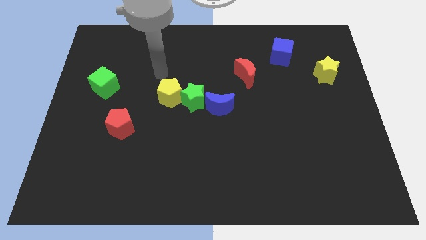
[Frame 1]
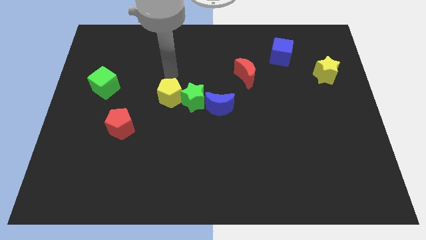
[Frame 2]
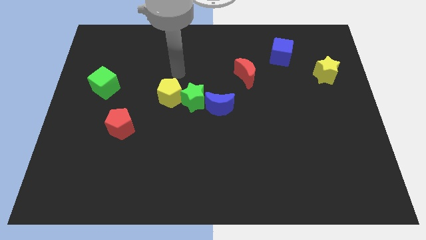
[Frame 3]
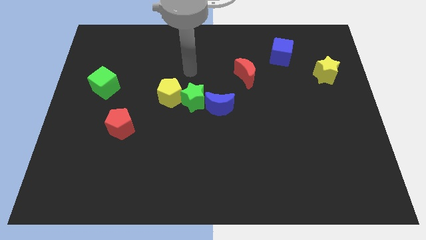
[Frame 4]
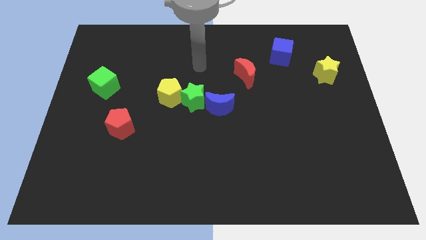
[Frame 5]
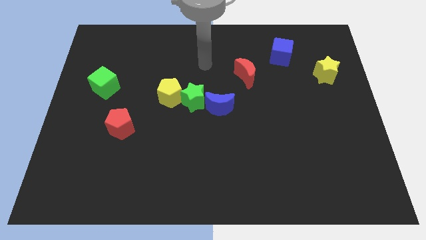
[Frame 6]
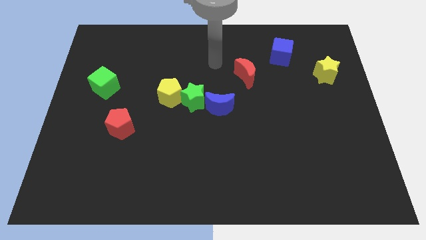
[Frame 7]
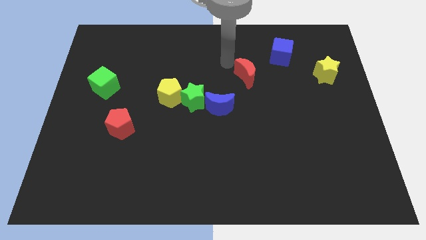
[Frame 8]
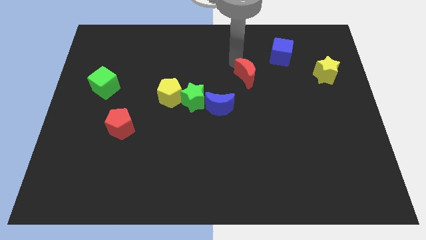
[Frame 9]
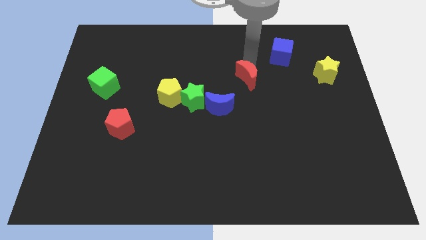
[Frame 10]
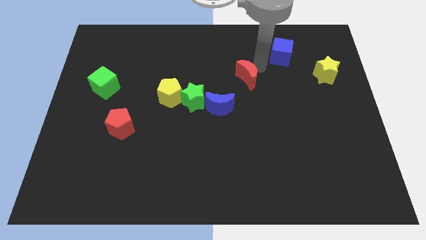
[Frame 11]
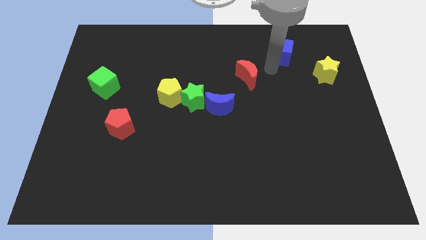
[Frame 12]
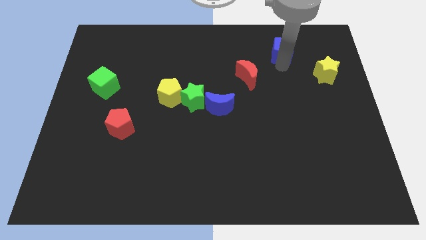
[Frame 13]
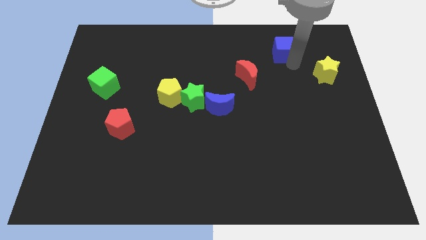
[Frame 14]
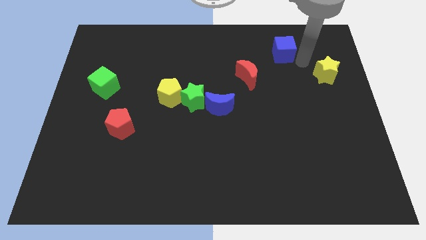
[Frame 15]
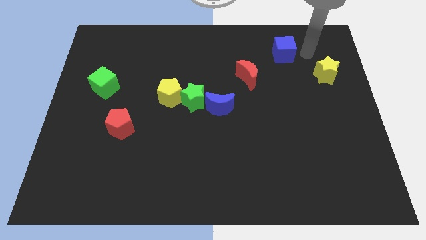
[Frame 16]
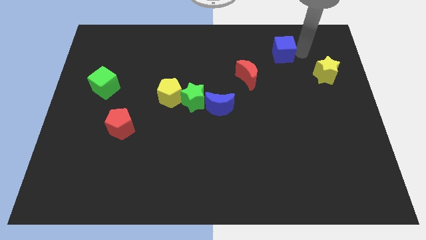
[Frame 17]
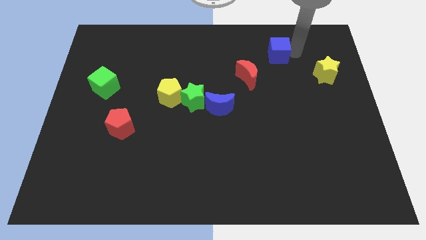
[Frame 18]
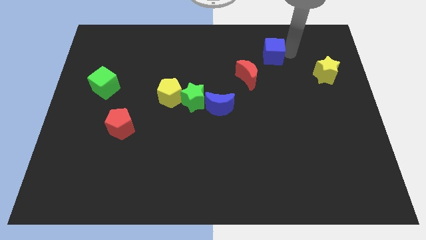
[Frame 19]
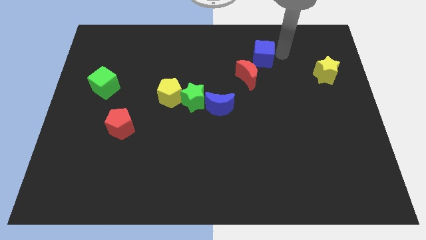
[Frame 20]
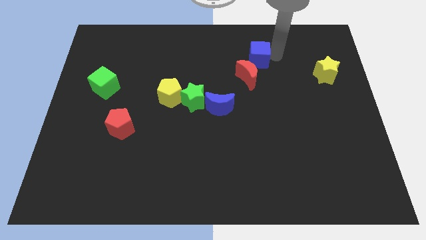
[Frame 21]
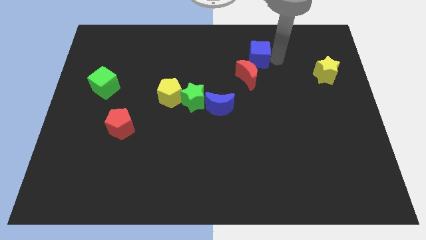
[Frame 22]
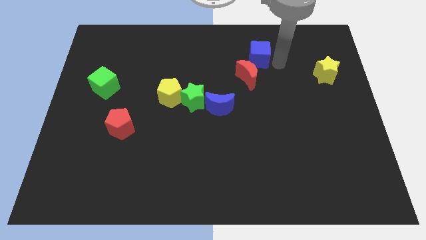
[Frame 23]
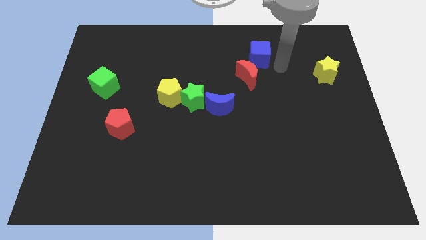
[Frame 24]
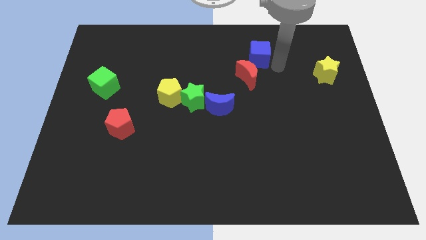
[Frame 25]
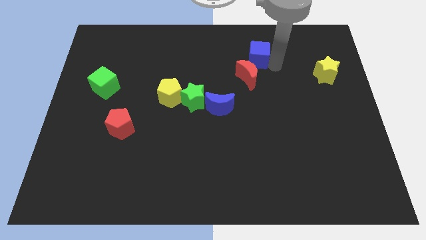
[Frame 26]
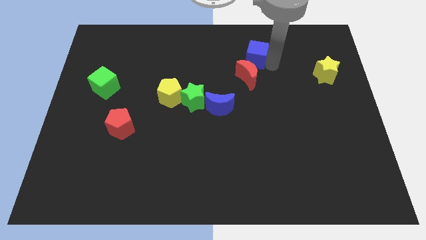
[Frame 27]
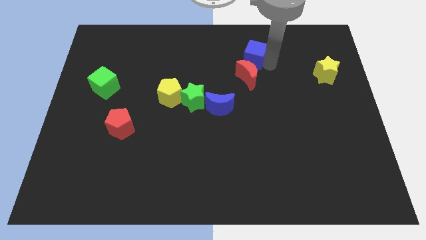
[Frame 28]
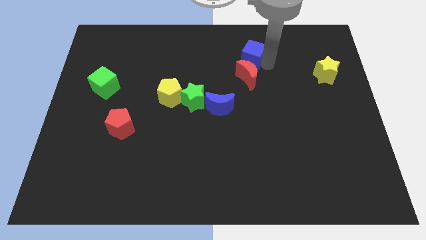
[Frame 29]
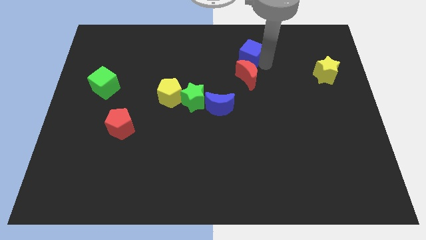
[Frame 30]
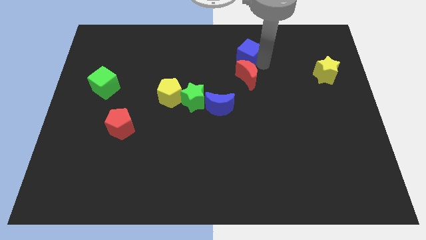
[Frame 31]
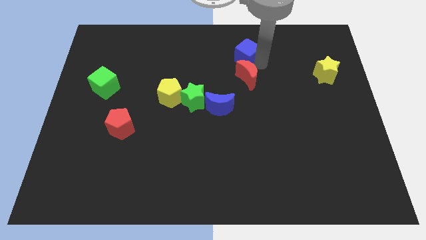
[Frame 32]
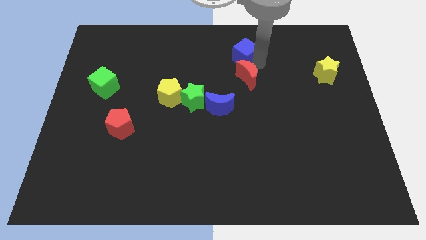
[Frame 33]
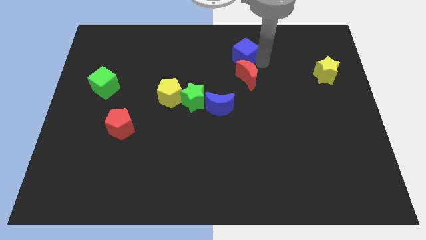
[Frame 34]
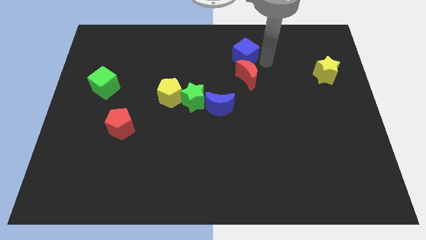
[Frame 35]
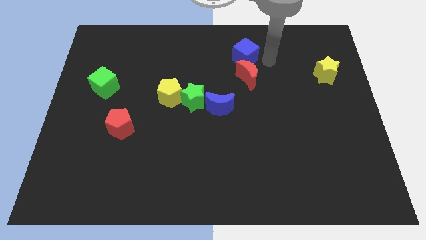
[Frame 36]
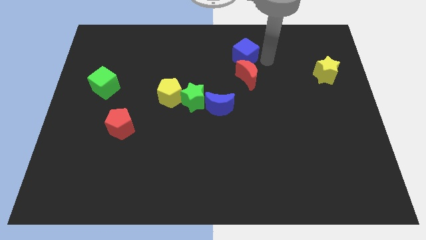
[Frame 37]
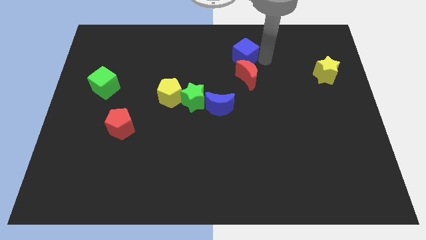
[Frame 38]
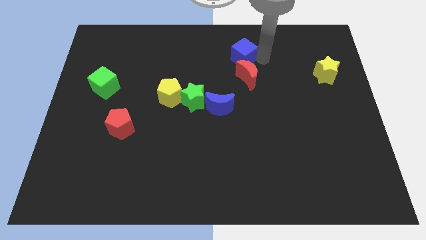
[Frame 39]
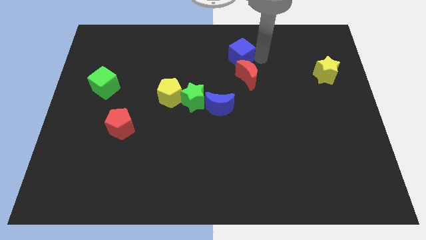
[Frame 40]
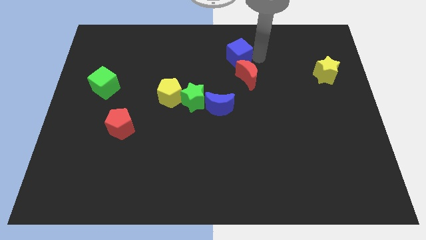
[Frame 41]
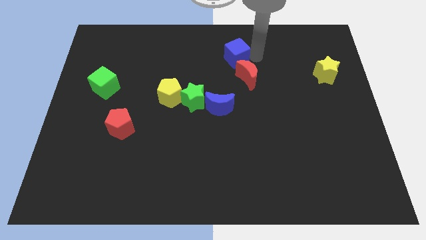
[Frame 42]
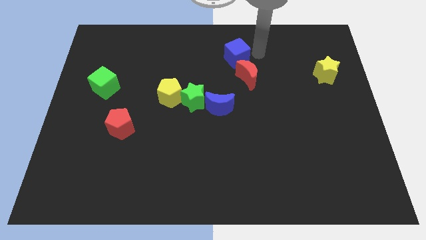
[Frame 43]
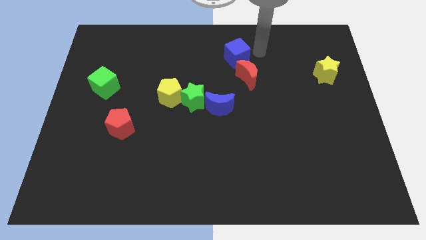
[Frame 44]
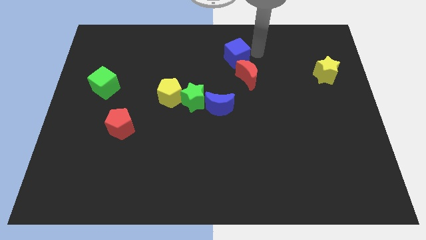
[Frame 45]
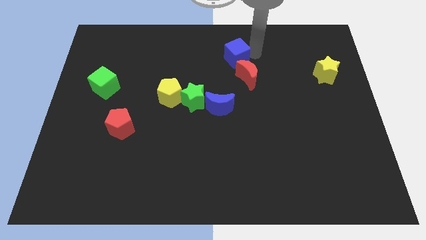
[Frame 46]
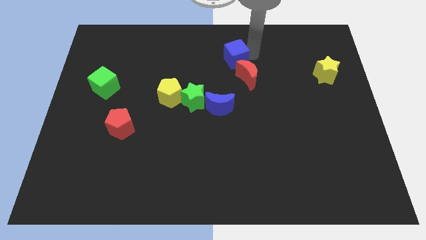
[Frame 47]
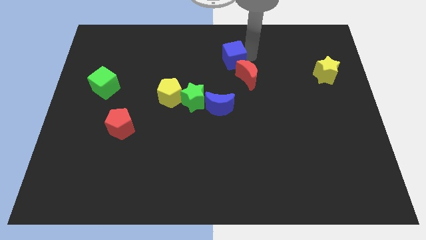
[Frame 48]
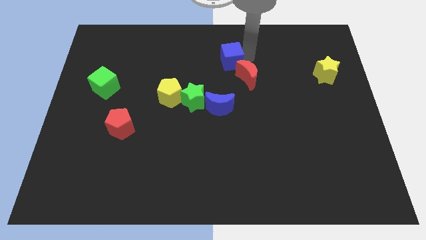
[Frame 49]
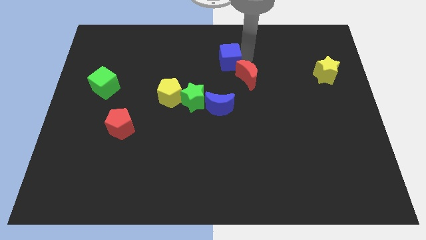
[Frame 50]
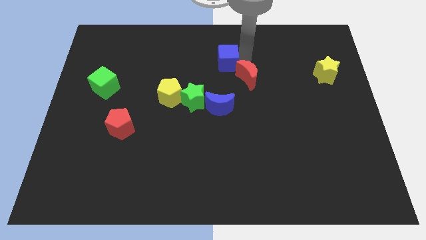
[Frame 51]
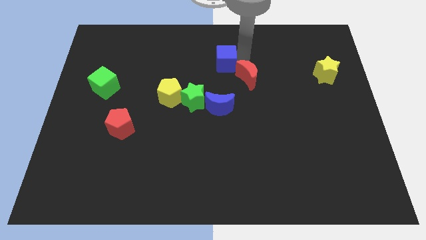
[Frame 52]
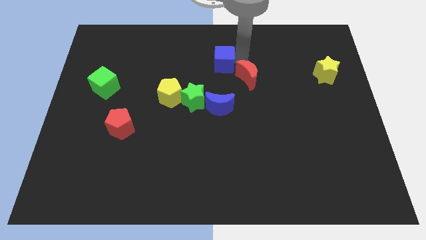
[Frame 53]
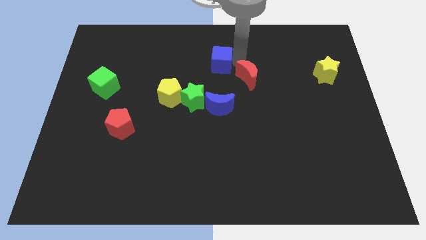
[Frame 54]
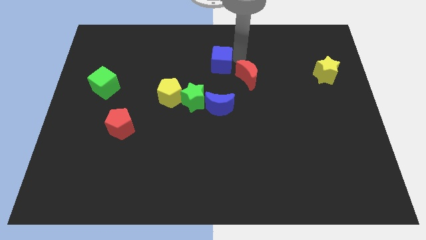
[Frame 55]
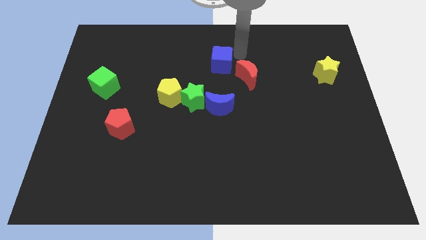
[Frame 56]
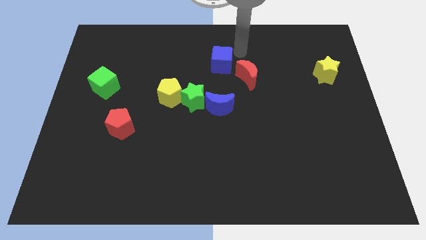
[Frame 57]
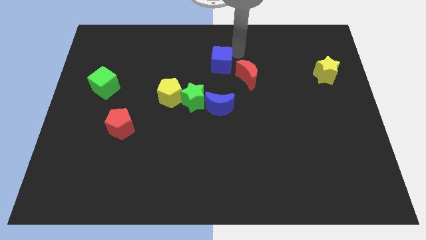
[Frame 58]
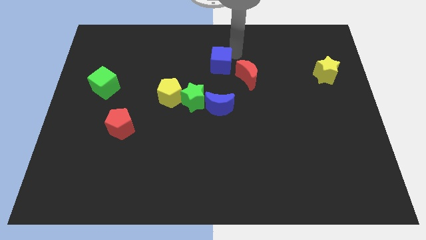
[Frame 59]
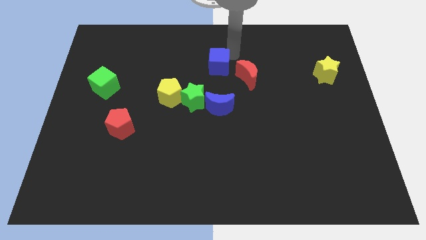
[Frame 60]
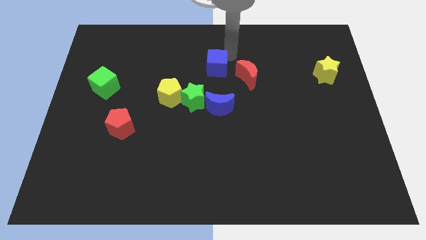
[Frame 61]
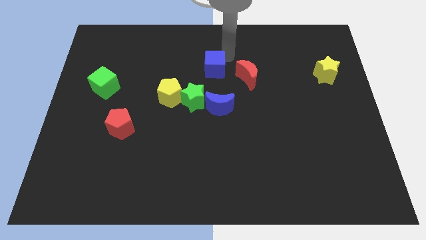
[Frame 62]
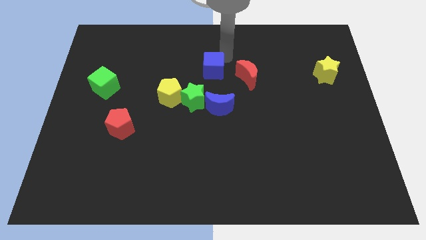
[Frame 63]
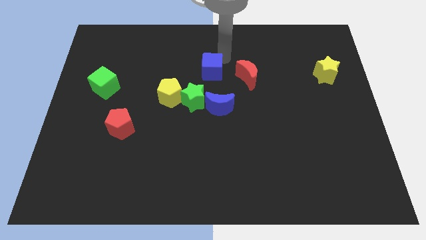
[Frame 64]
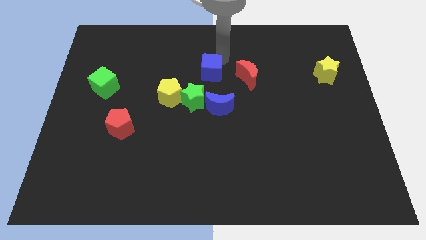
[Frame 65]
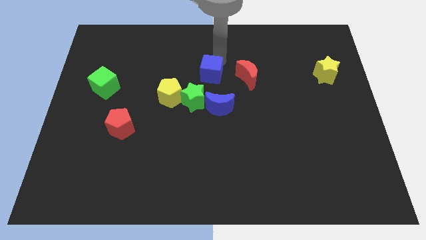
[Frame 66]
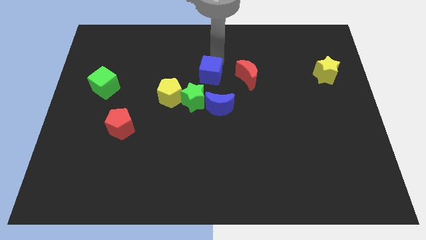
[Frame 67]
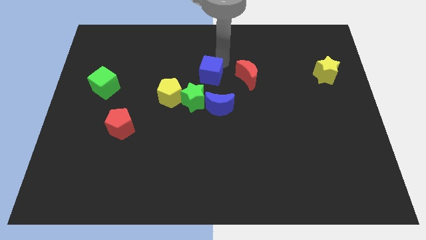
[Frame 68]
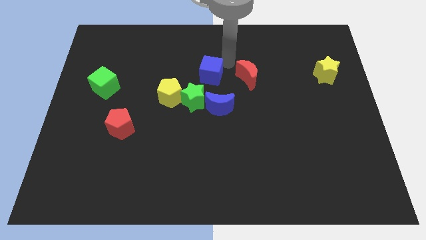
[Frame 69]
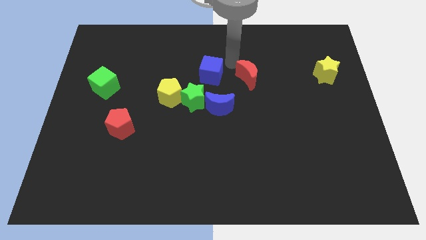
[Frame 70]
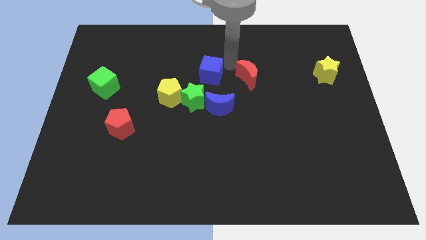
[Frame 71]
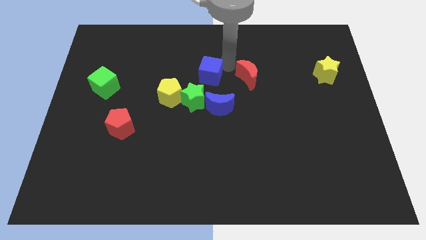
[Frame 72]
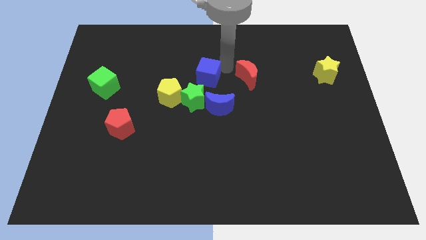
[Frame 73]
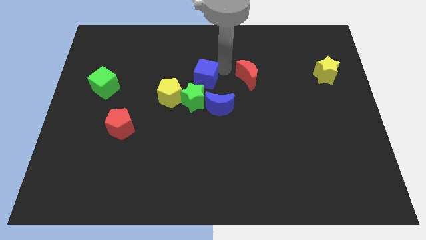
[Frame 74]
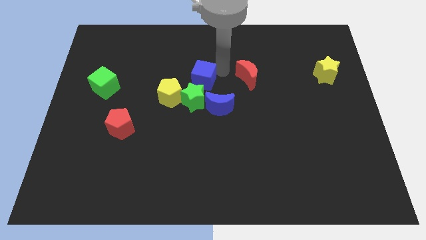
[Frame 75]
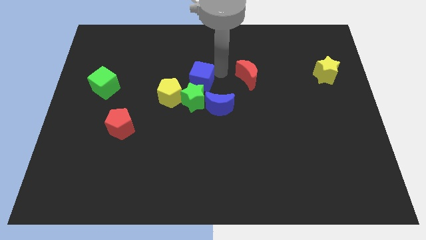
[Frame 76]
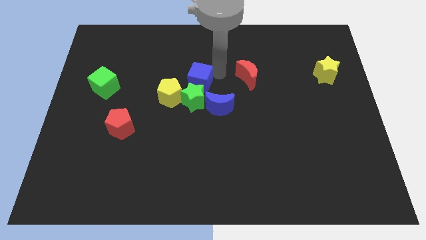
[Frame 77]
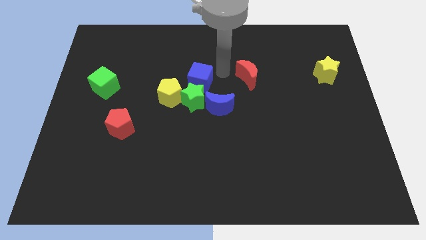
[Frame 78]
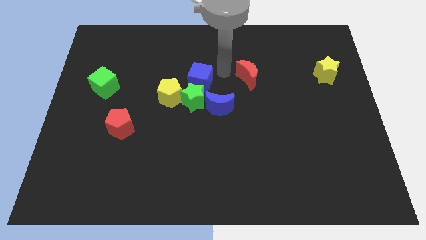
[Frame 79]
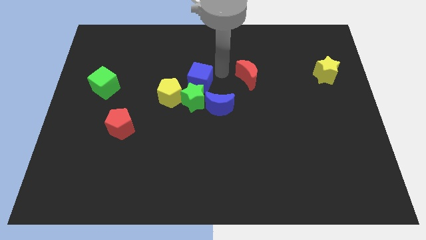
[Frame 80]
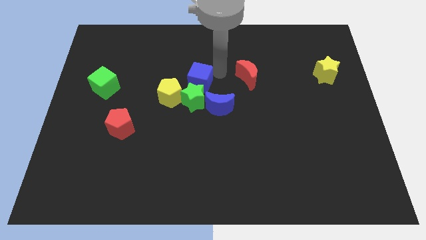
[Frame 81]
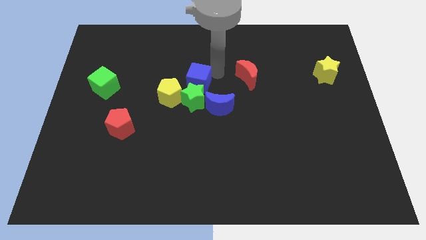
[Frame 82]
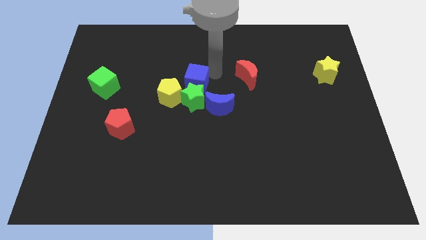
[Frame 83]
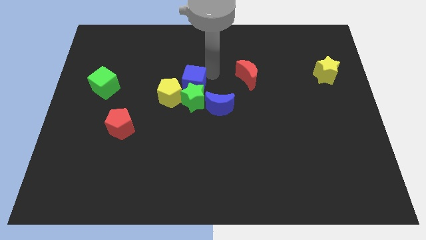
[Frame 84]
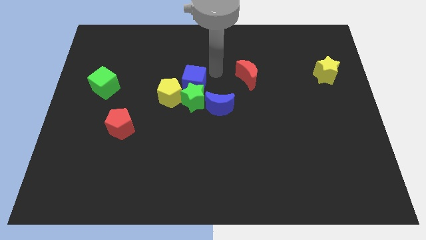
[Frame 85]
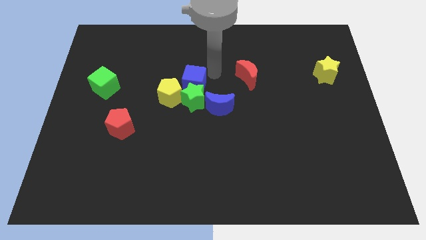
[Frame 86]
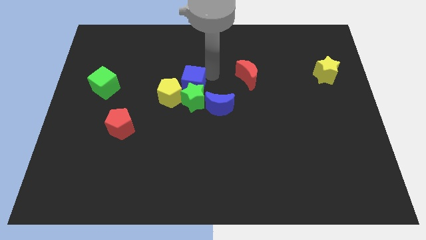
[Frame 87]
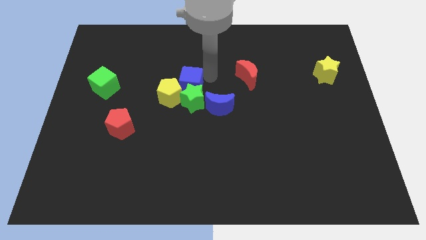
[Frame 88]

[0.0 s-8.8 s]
put the blue cube towards the yellow pentagon
